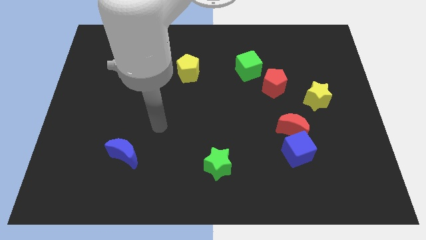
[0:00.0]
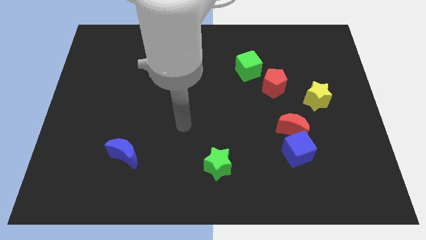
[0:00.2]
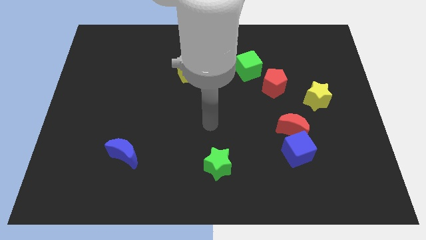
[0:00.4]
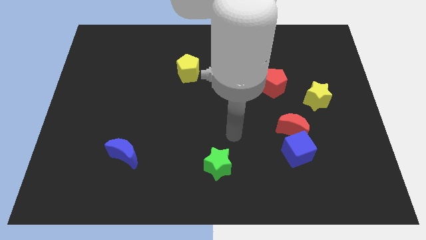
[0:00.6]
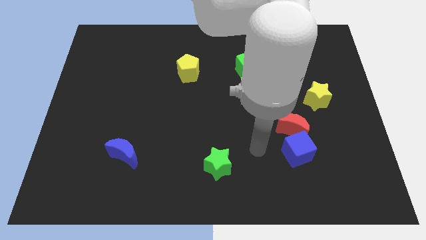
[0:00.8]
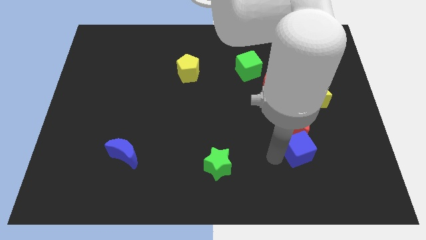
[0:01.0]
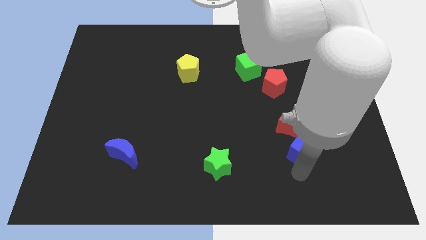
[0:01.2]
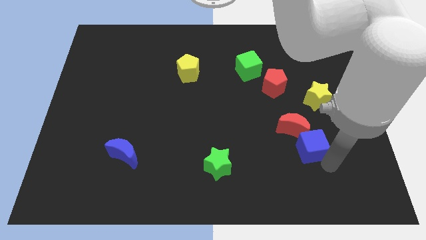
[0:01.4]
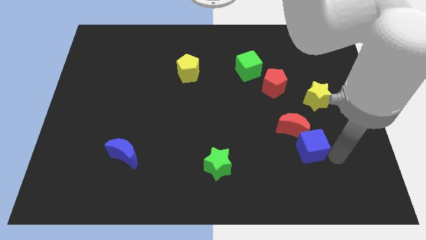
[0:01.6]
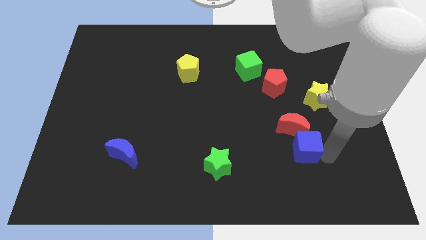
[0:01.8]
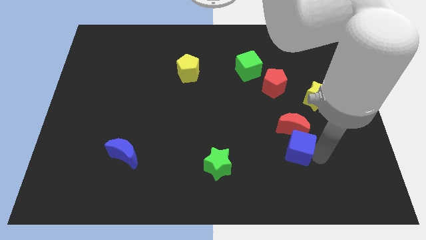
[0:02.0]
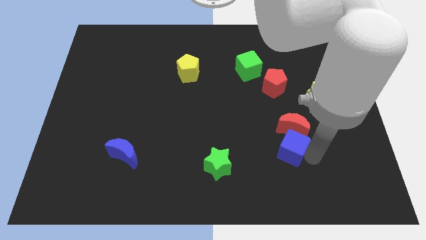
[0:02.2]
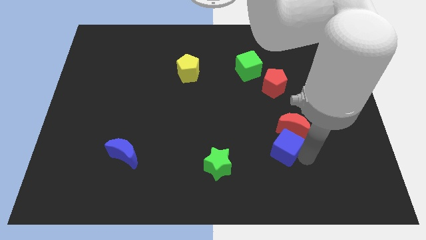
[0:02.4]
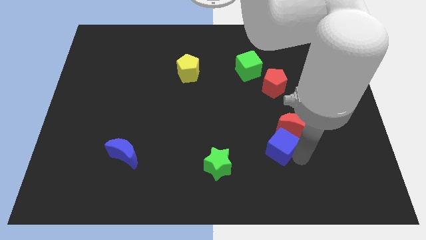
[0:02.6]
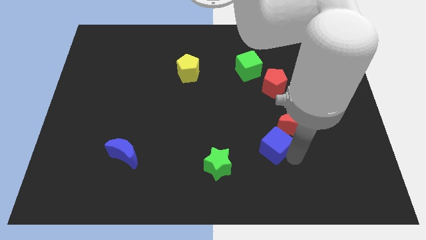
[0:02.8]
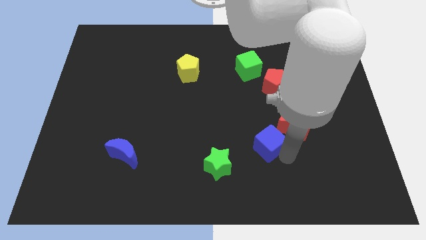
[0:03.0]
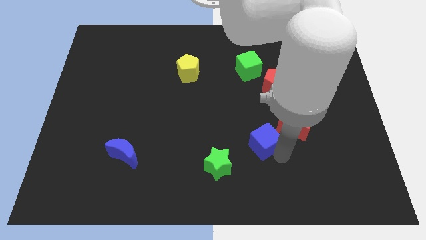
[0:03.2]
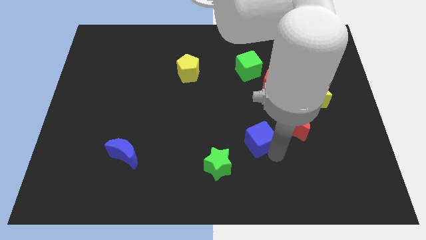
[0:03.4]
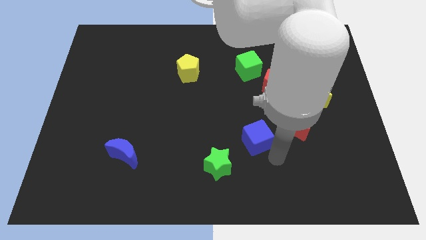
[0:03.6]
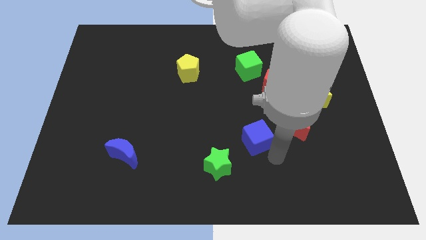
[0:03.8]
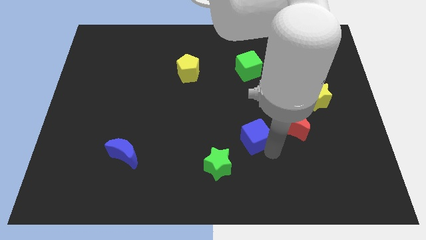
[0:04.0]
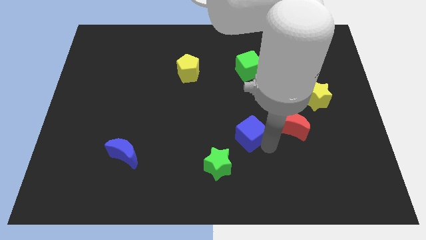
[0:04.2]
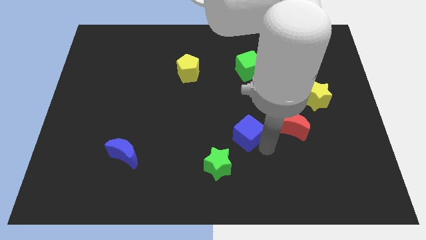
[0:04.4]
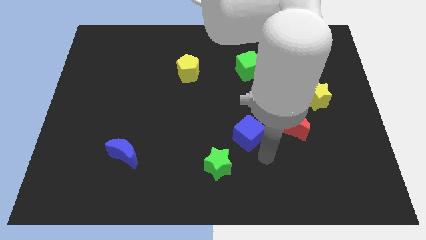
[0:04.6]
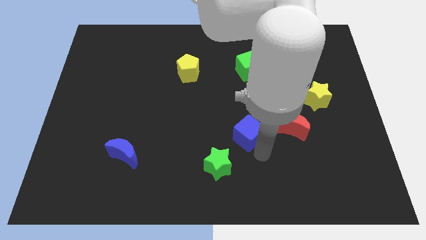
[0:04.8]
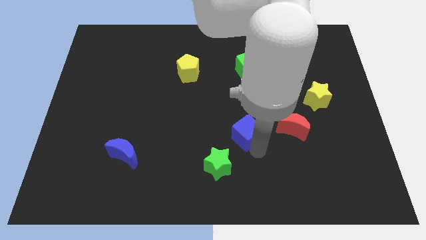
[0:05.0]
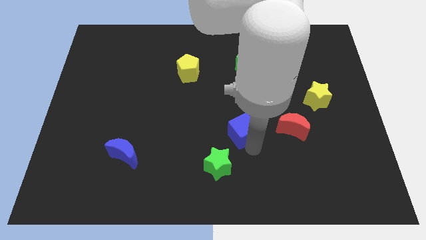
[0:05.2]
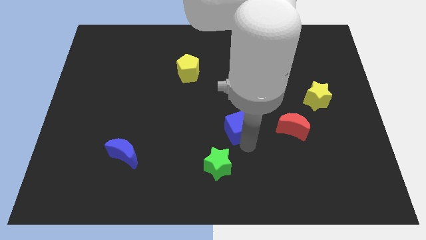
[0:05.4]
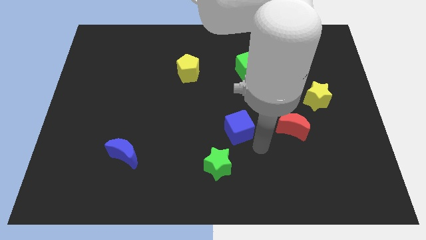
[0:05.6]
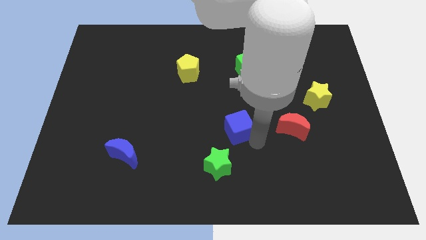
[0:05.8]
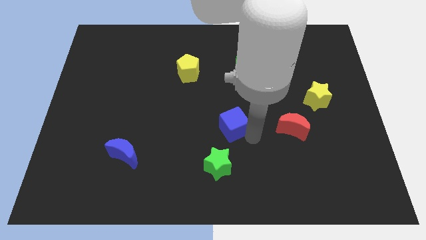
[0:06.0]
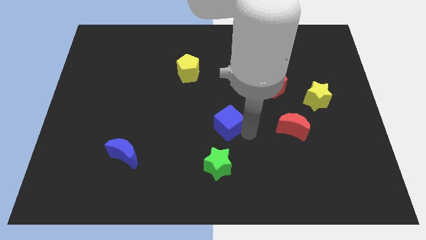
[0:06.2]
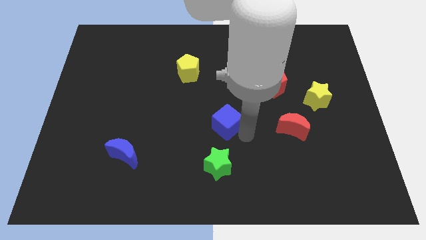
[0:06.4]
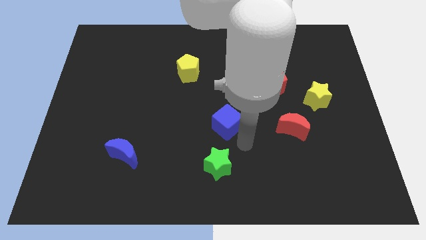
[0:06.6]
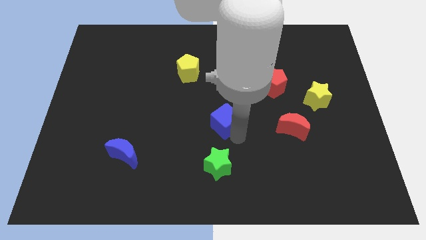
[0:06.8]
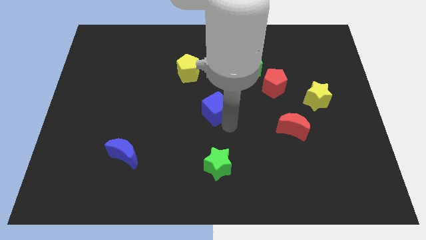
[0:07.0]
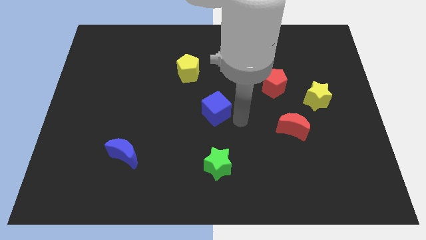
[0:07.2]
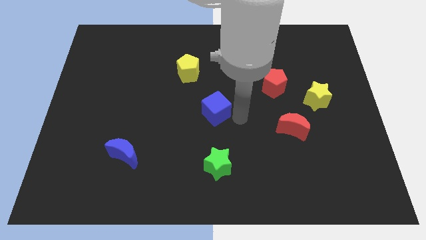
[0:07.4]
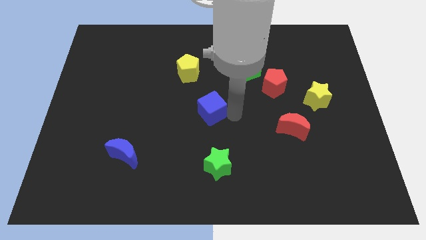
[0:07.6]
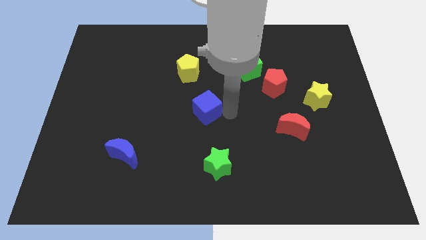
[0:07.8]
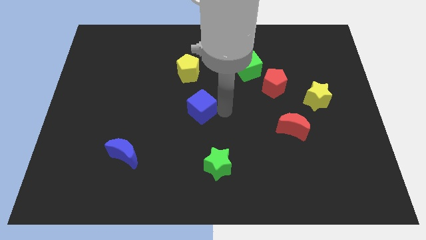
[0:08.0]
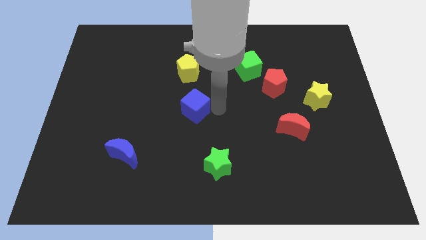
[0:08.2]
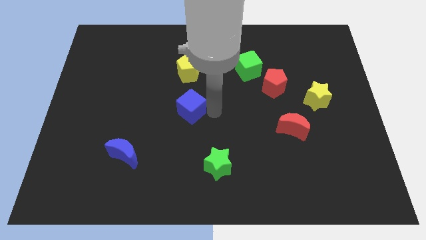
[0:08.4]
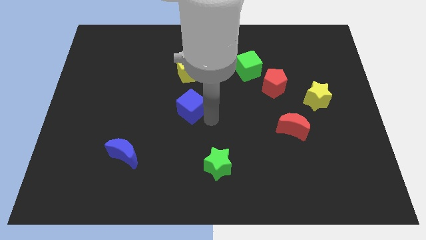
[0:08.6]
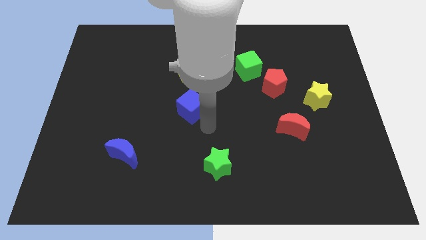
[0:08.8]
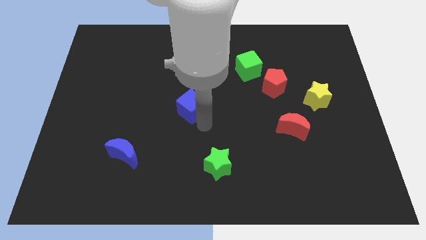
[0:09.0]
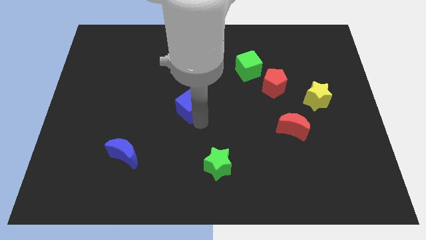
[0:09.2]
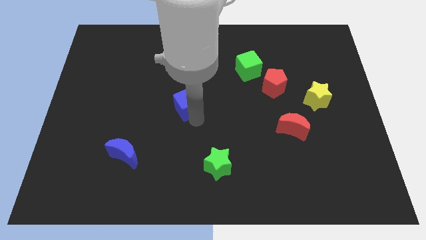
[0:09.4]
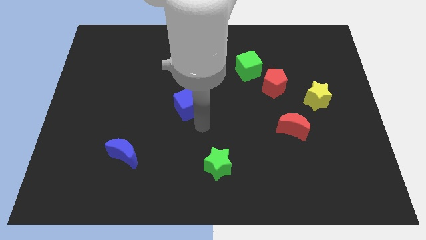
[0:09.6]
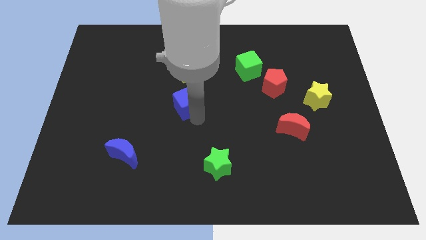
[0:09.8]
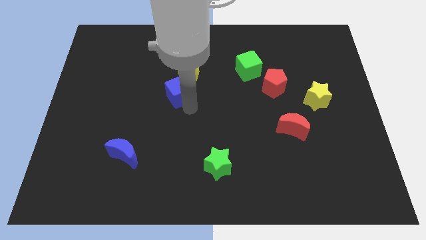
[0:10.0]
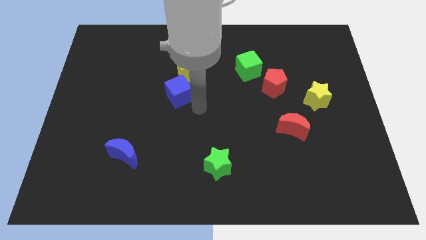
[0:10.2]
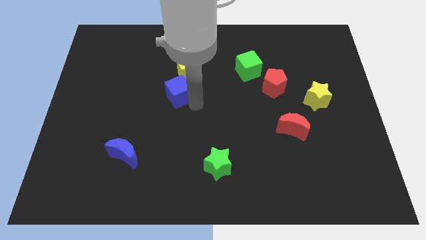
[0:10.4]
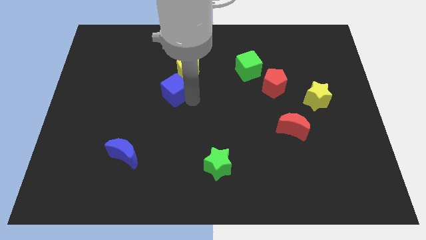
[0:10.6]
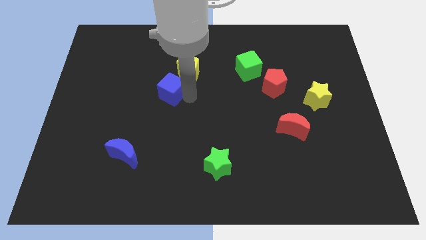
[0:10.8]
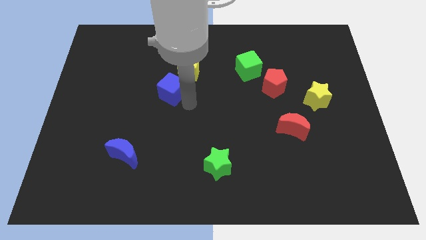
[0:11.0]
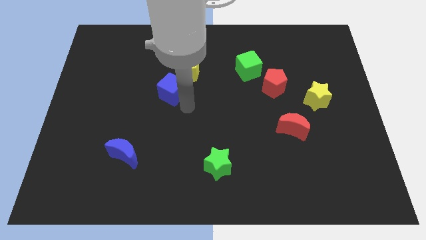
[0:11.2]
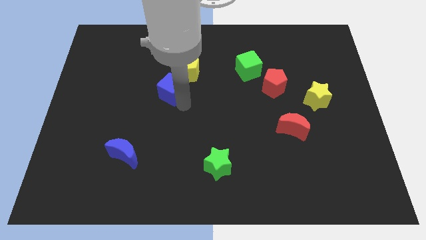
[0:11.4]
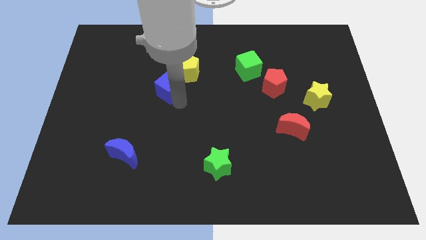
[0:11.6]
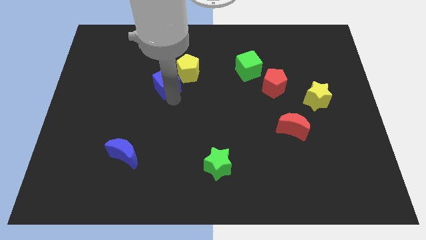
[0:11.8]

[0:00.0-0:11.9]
move the blue cube to the left of the yellow pentagon

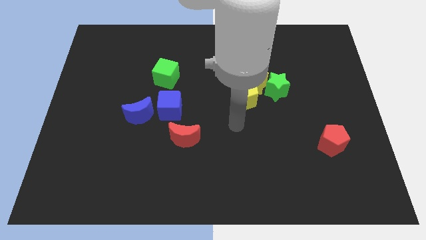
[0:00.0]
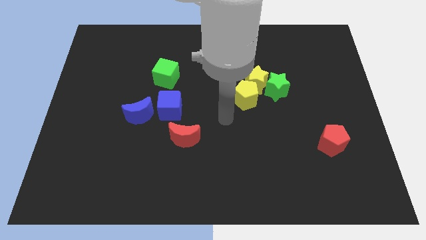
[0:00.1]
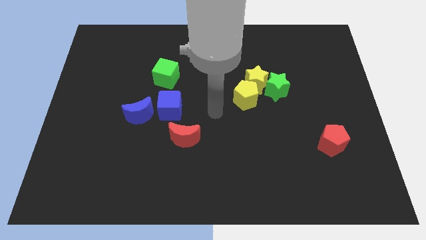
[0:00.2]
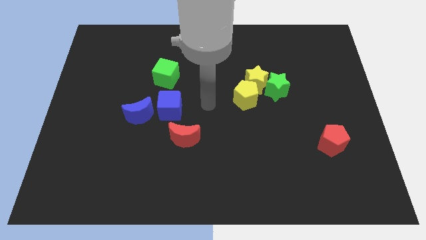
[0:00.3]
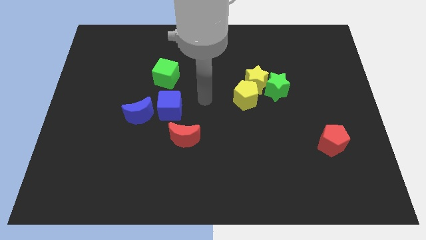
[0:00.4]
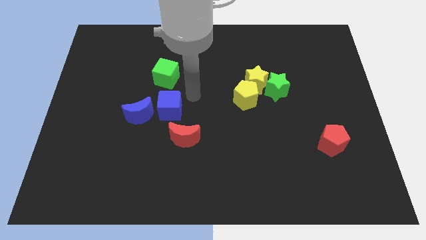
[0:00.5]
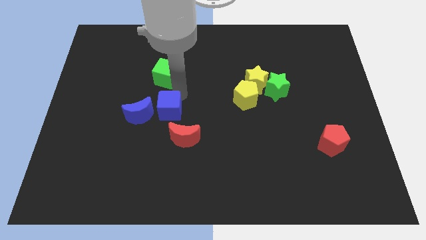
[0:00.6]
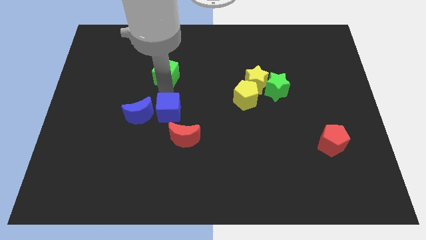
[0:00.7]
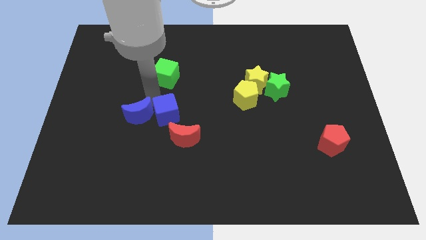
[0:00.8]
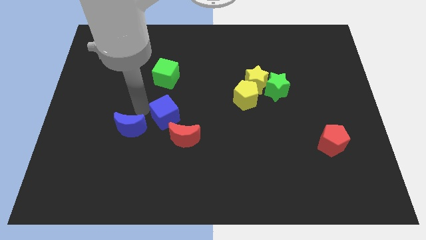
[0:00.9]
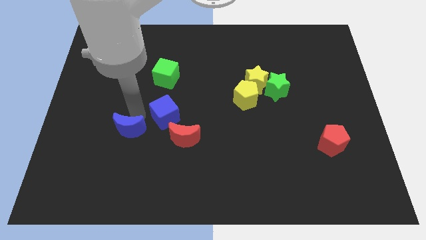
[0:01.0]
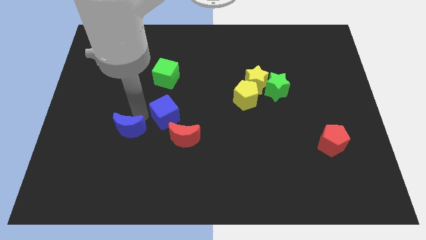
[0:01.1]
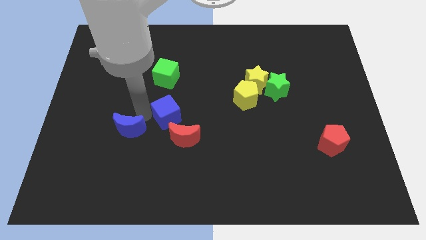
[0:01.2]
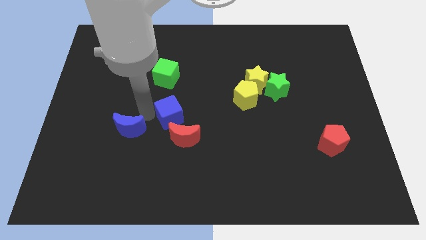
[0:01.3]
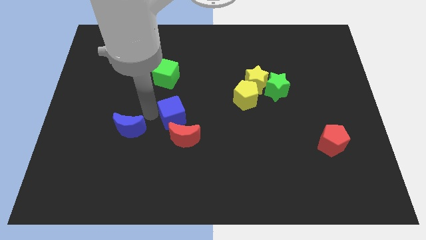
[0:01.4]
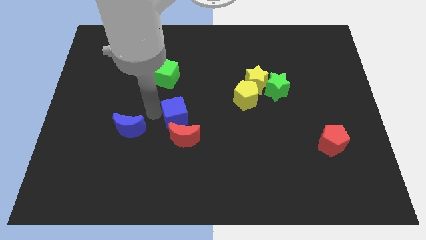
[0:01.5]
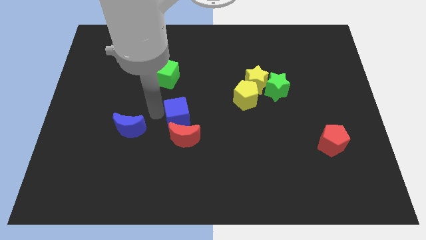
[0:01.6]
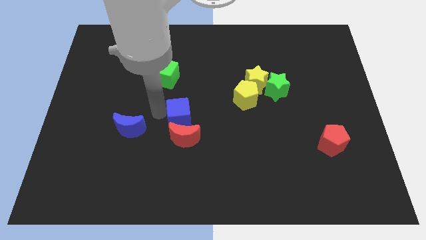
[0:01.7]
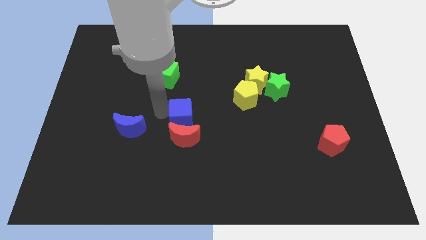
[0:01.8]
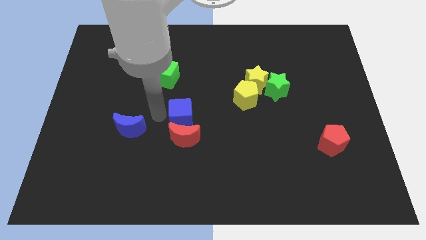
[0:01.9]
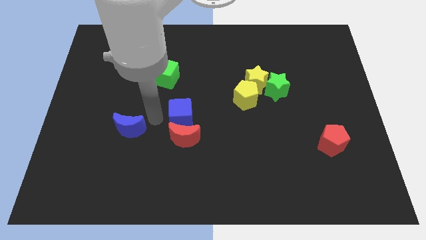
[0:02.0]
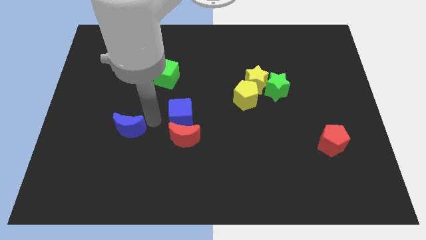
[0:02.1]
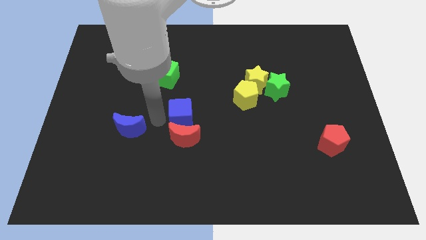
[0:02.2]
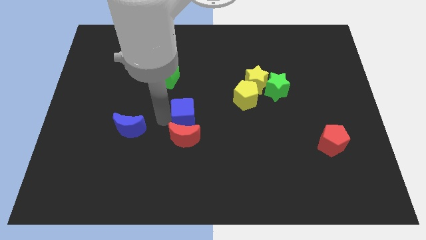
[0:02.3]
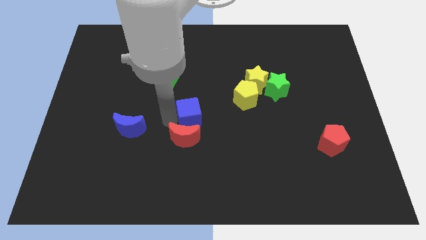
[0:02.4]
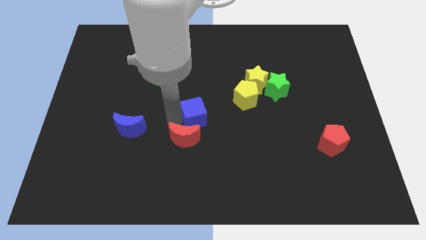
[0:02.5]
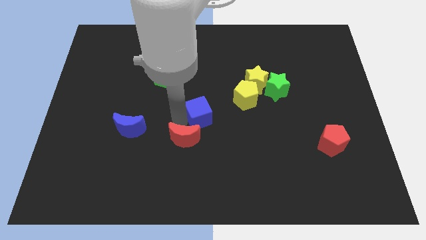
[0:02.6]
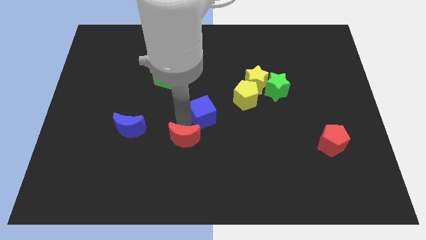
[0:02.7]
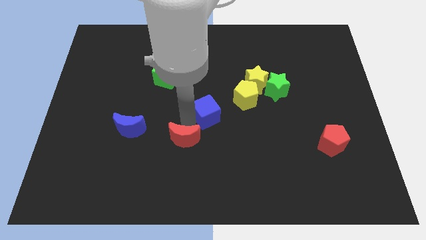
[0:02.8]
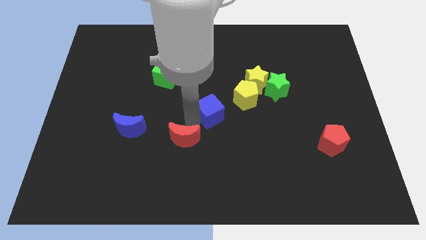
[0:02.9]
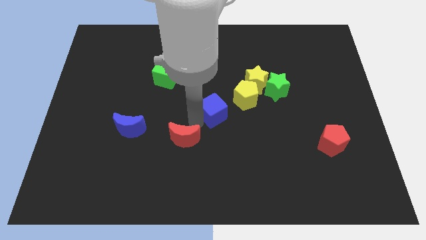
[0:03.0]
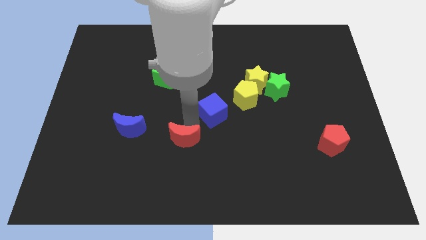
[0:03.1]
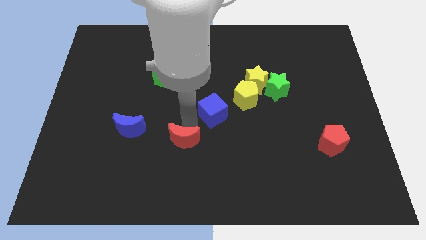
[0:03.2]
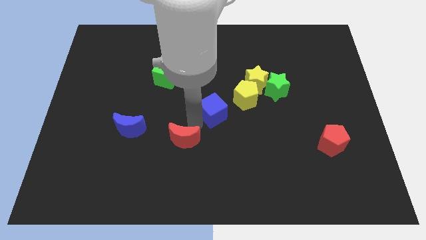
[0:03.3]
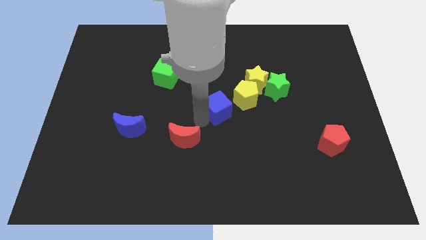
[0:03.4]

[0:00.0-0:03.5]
put the blue cube diagonally down and to the left of the yellow star
